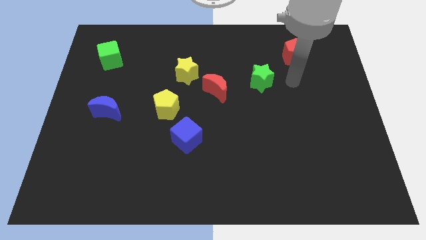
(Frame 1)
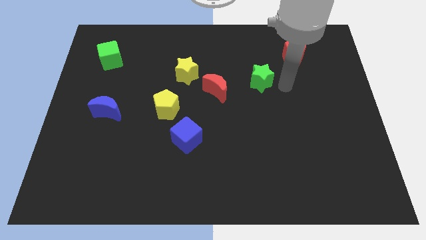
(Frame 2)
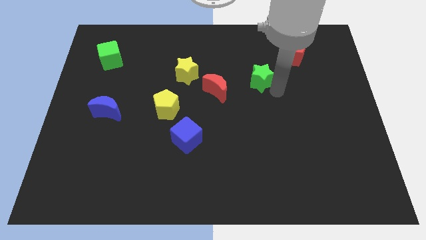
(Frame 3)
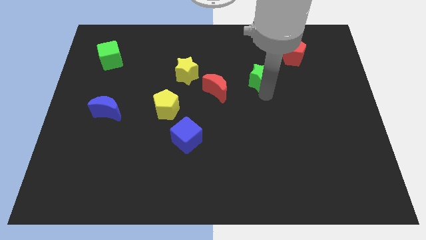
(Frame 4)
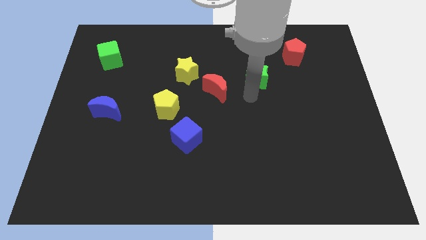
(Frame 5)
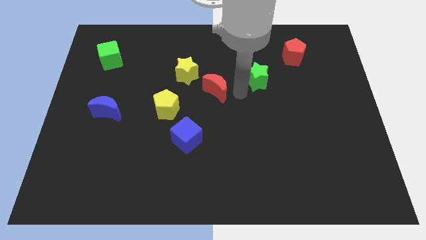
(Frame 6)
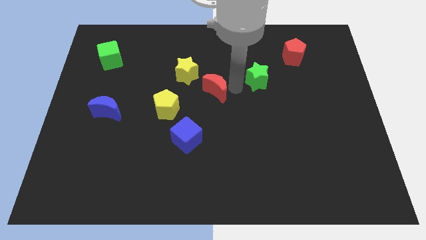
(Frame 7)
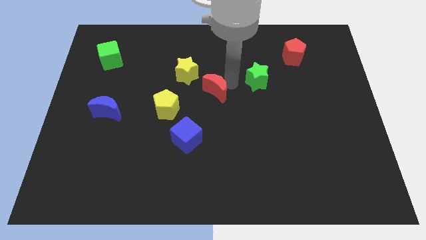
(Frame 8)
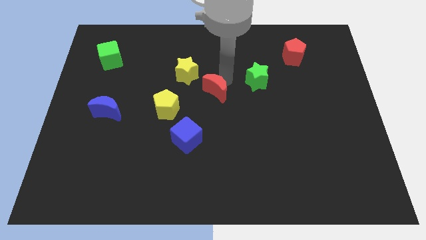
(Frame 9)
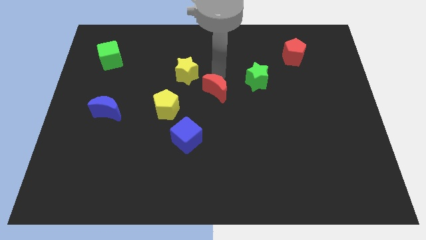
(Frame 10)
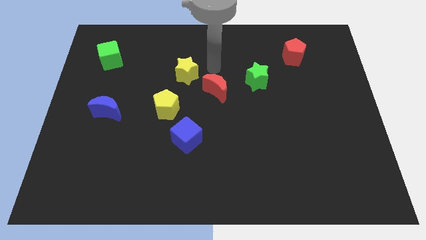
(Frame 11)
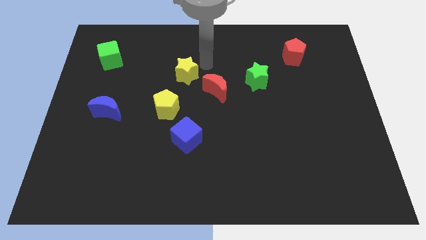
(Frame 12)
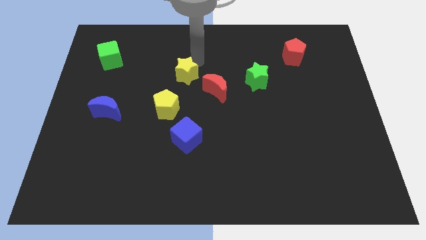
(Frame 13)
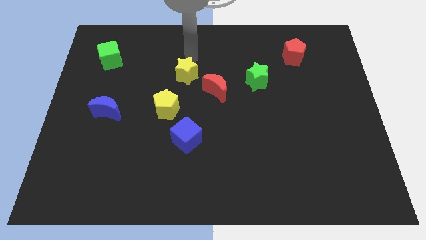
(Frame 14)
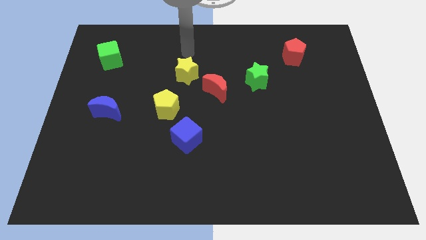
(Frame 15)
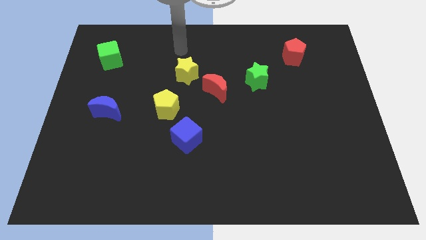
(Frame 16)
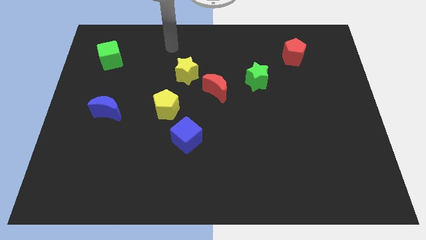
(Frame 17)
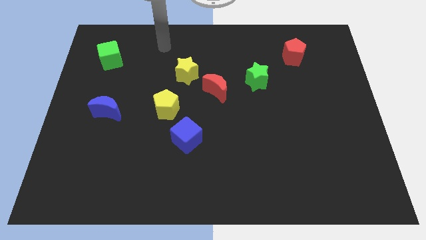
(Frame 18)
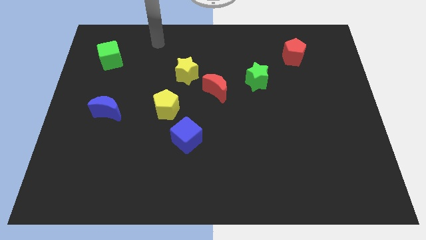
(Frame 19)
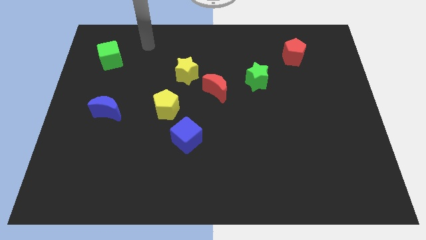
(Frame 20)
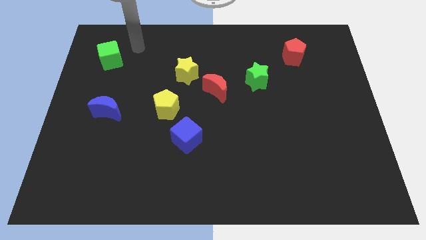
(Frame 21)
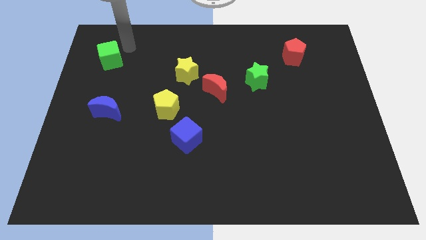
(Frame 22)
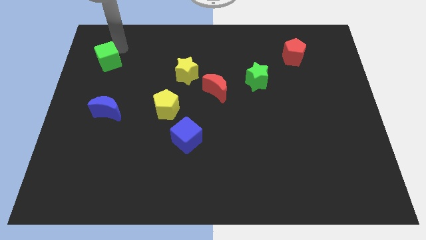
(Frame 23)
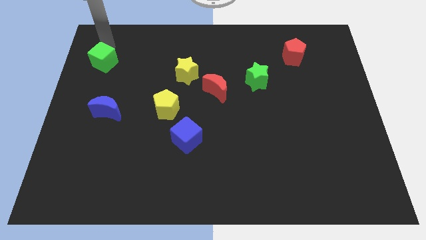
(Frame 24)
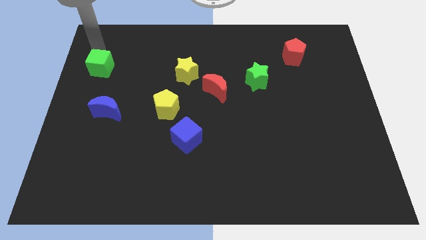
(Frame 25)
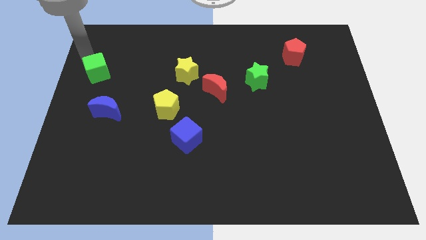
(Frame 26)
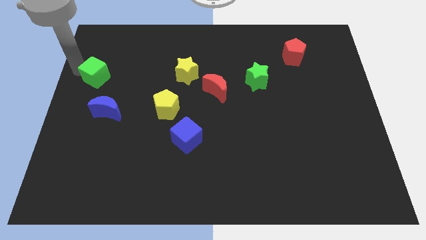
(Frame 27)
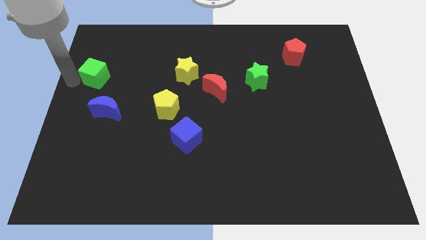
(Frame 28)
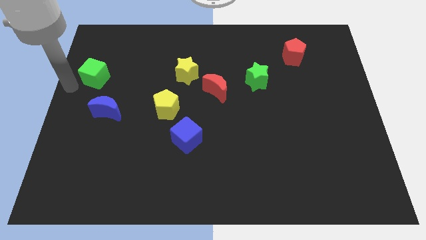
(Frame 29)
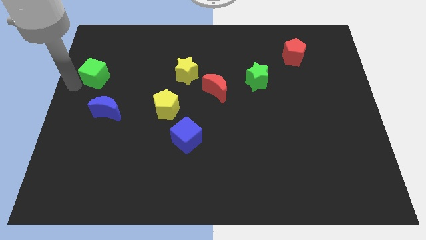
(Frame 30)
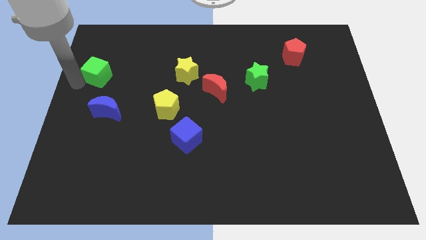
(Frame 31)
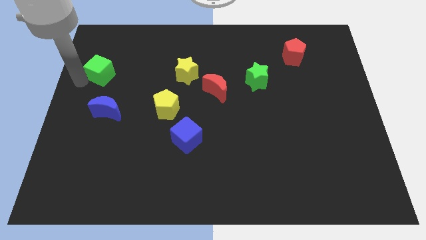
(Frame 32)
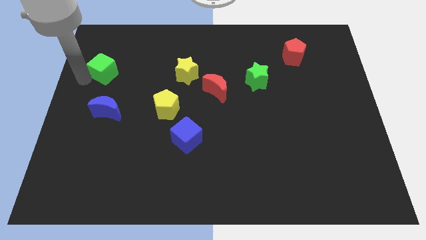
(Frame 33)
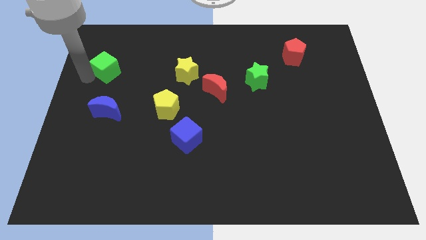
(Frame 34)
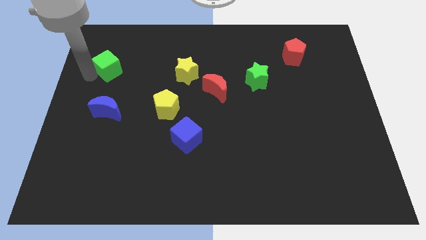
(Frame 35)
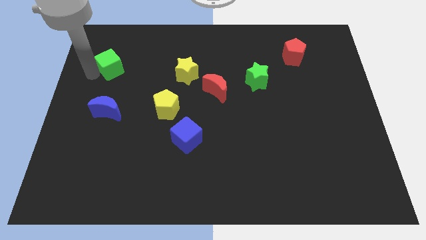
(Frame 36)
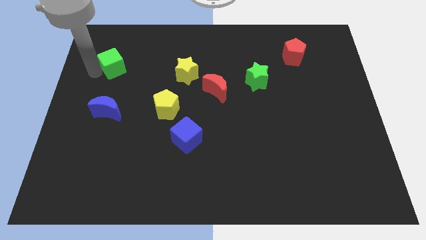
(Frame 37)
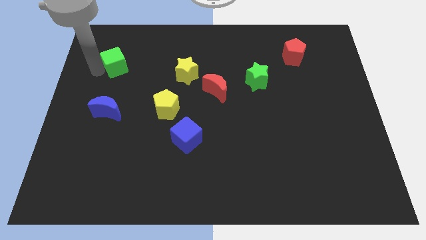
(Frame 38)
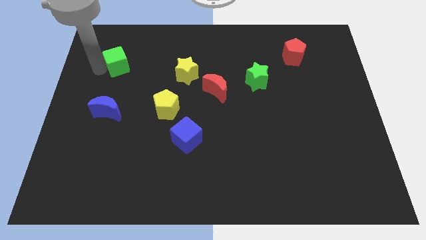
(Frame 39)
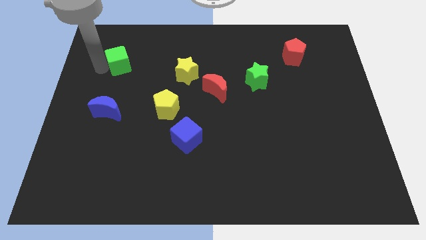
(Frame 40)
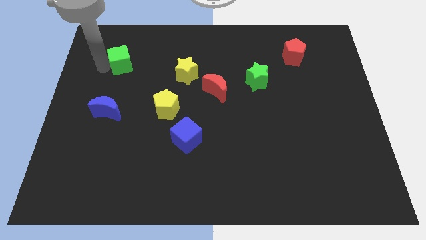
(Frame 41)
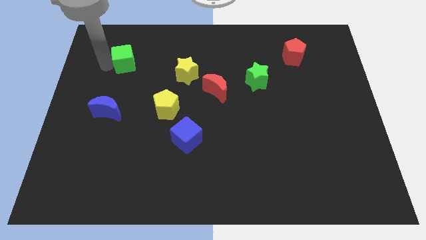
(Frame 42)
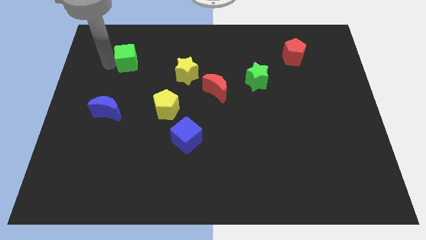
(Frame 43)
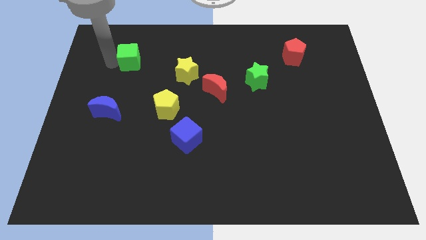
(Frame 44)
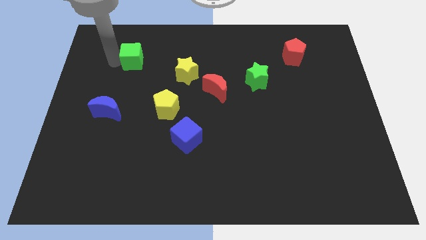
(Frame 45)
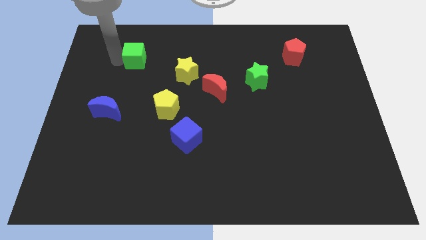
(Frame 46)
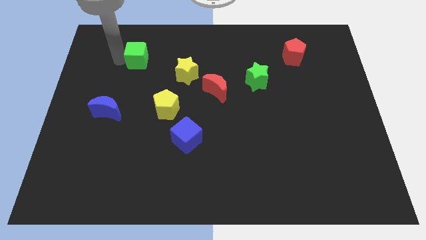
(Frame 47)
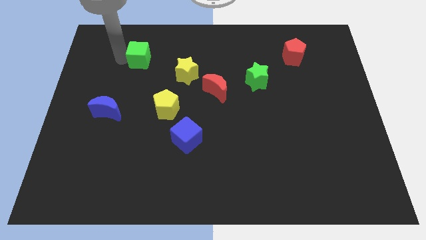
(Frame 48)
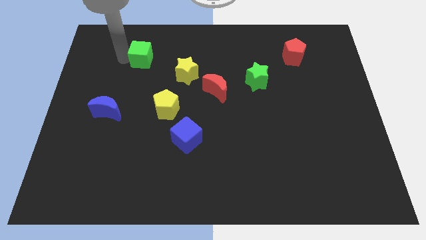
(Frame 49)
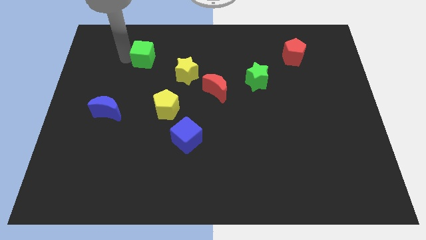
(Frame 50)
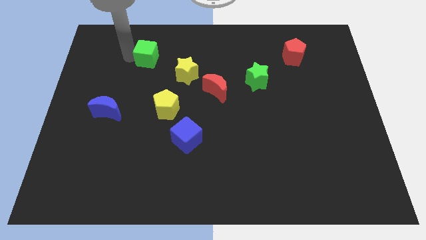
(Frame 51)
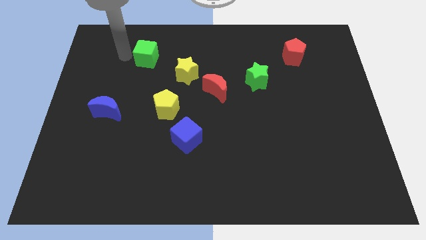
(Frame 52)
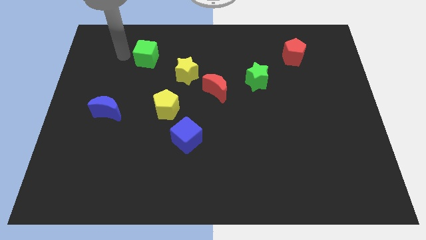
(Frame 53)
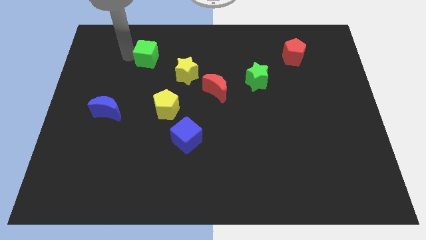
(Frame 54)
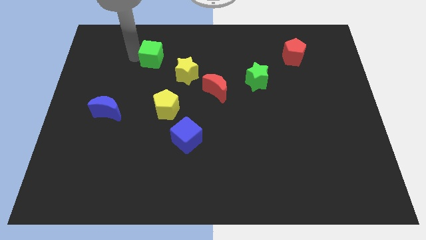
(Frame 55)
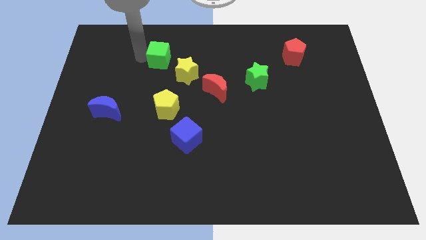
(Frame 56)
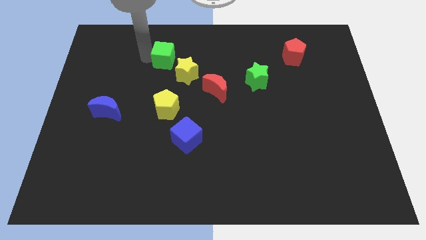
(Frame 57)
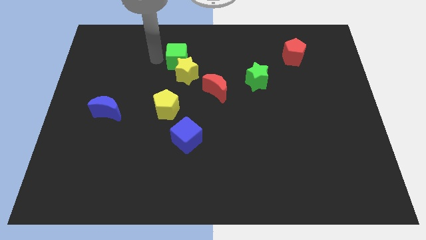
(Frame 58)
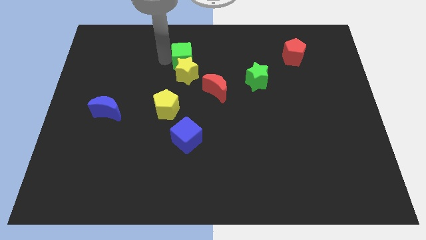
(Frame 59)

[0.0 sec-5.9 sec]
put the green cube diagonally up and to the right of the yellow star

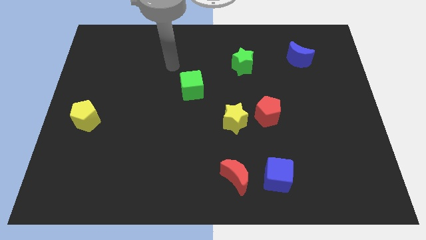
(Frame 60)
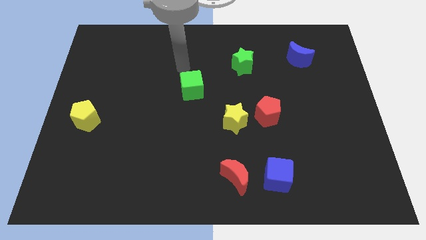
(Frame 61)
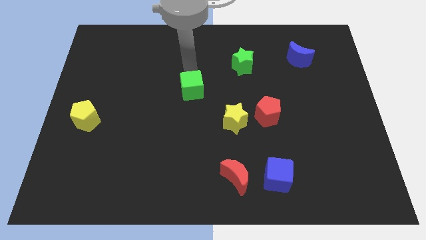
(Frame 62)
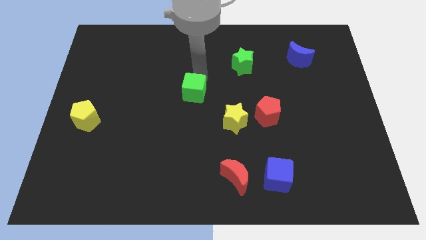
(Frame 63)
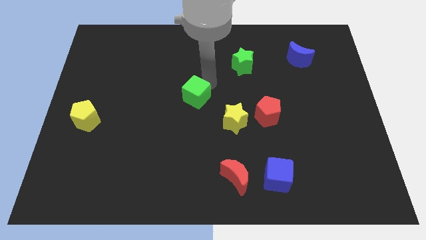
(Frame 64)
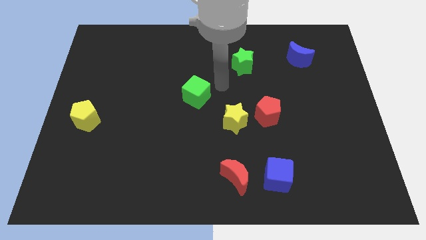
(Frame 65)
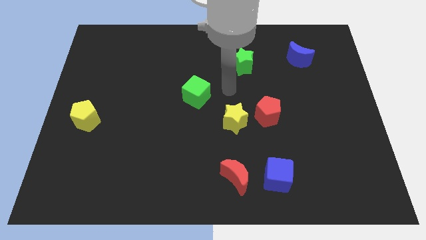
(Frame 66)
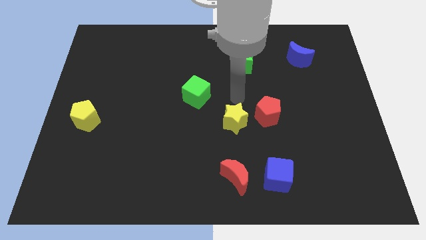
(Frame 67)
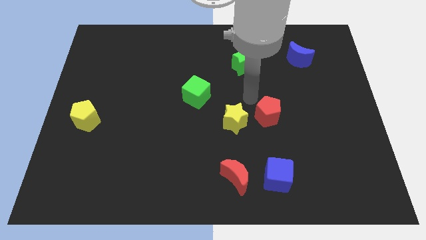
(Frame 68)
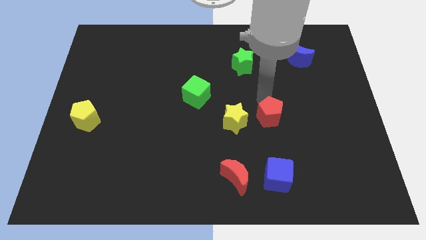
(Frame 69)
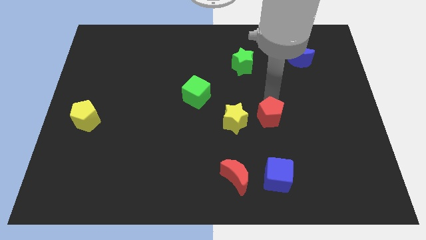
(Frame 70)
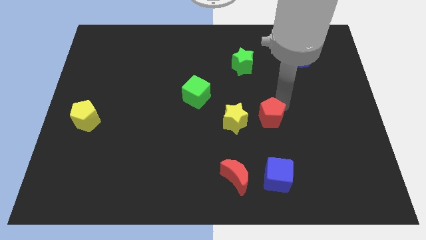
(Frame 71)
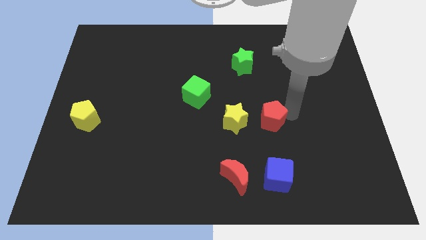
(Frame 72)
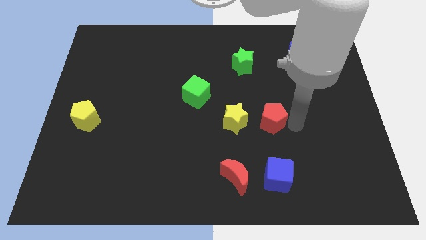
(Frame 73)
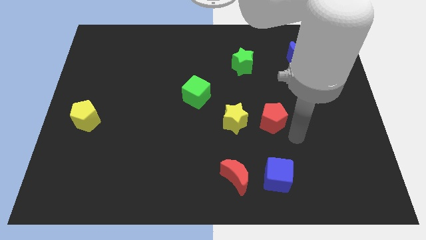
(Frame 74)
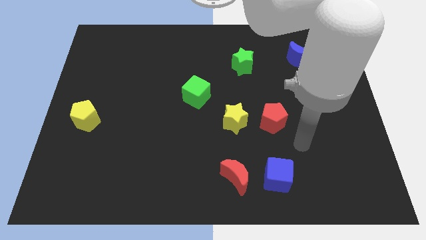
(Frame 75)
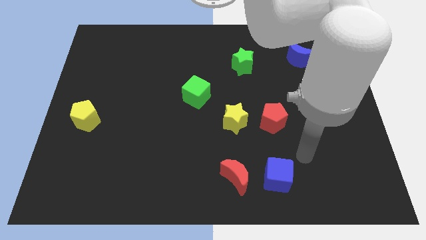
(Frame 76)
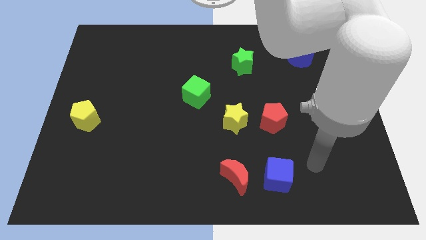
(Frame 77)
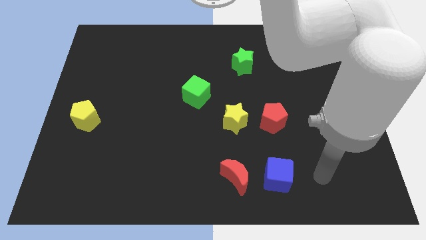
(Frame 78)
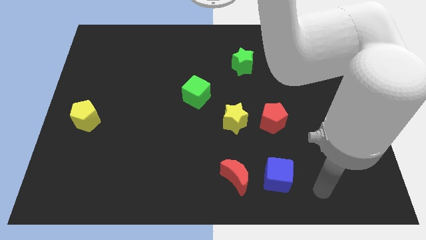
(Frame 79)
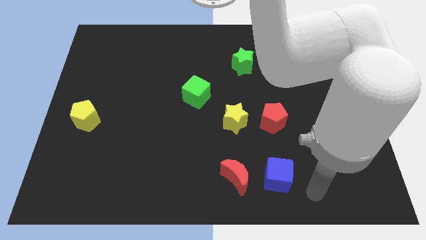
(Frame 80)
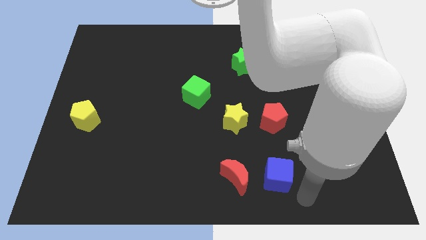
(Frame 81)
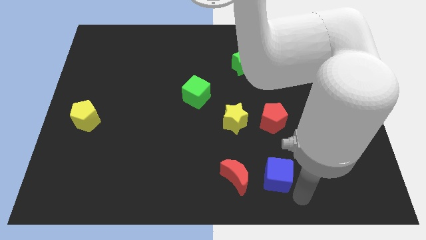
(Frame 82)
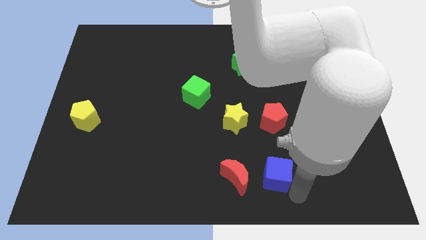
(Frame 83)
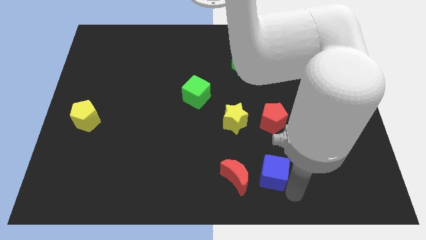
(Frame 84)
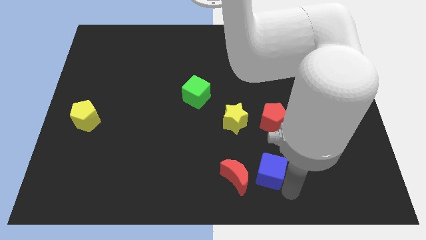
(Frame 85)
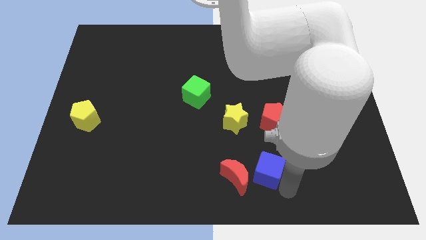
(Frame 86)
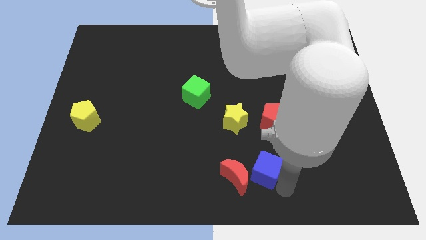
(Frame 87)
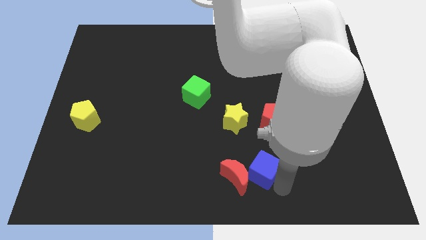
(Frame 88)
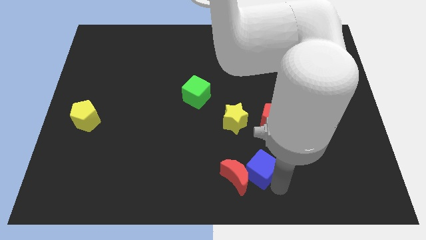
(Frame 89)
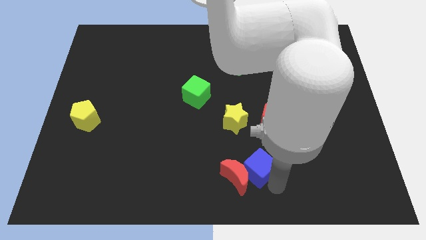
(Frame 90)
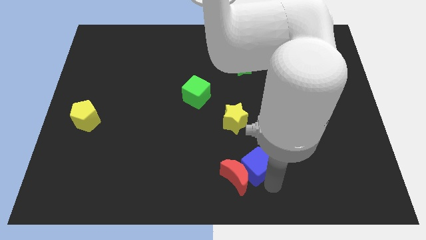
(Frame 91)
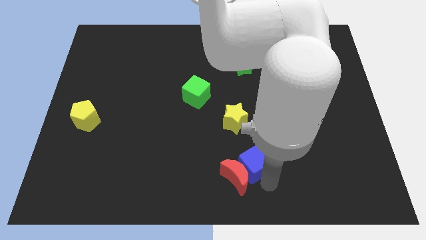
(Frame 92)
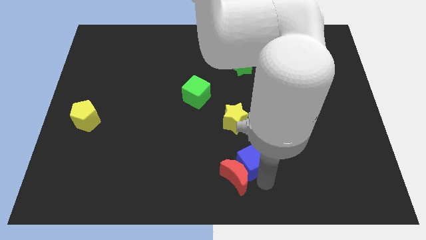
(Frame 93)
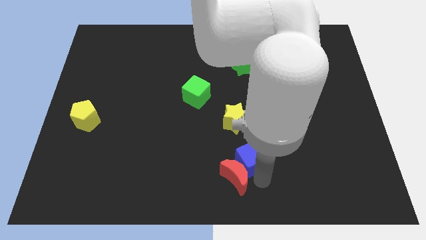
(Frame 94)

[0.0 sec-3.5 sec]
put the blue cube to the bottom left side of the red pentagon
